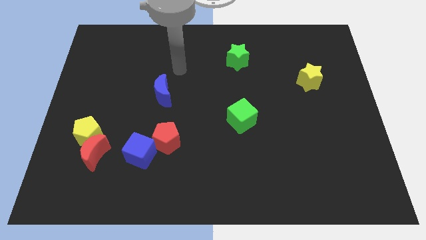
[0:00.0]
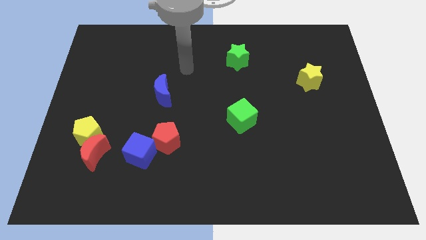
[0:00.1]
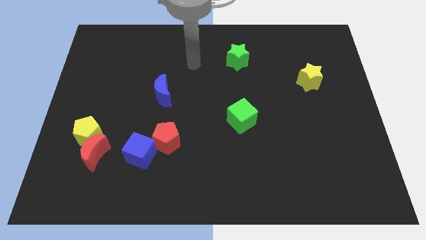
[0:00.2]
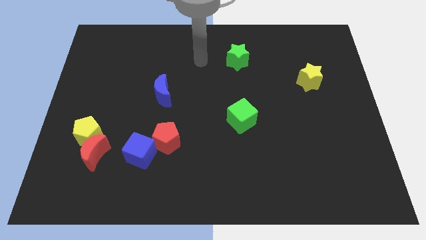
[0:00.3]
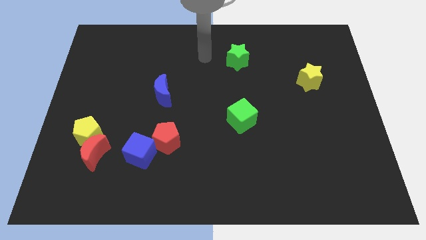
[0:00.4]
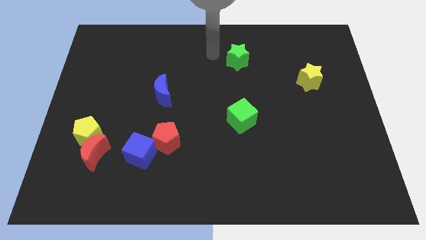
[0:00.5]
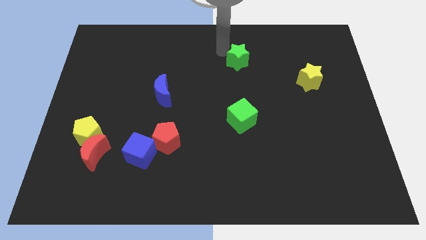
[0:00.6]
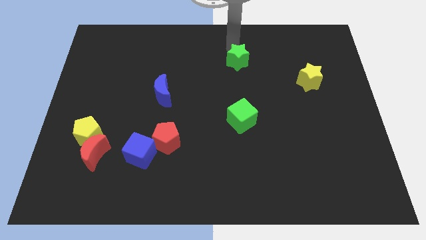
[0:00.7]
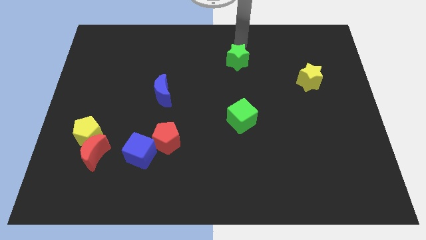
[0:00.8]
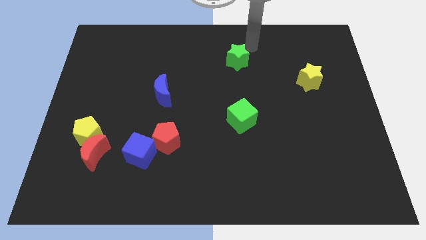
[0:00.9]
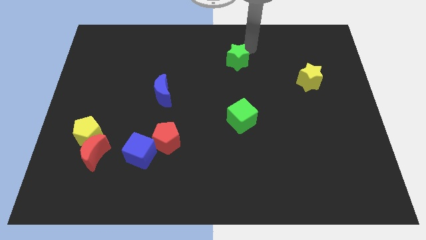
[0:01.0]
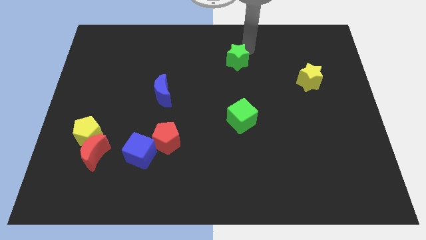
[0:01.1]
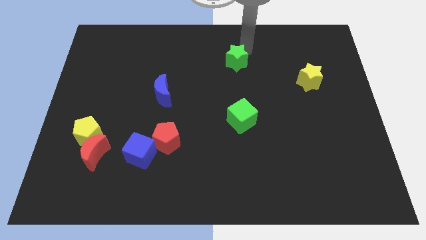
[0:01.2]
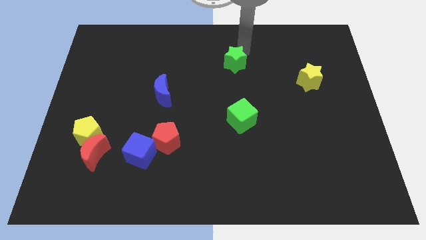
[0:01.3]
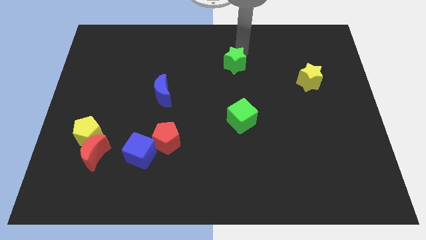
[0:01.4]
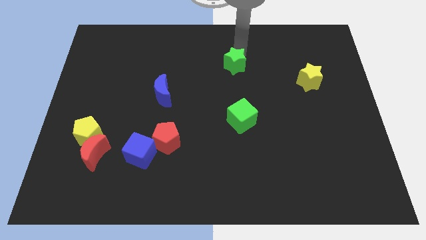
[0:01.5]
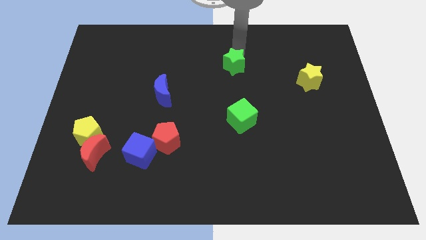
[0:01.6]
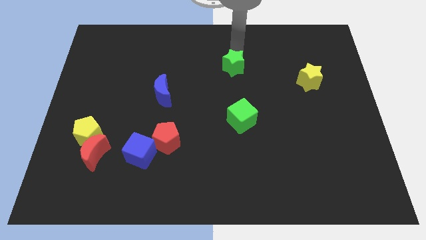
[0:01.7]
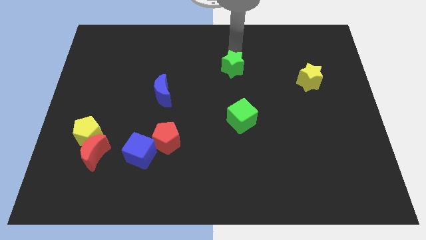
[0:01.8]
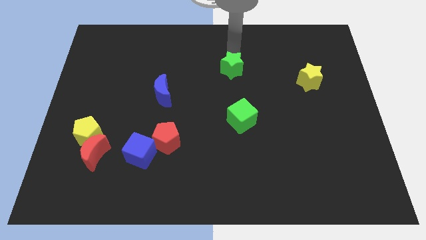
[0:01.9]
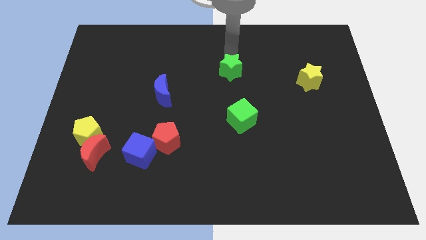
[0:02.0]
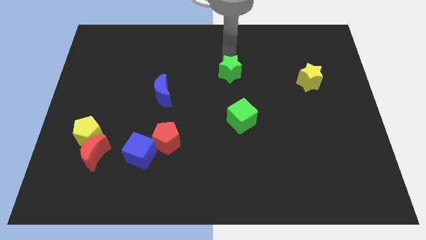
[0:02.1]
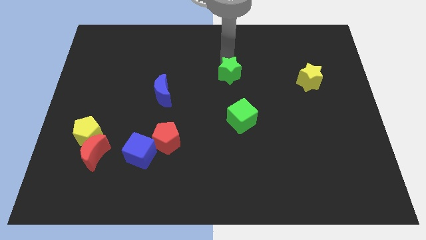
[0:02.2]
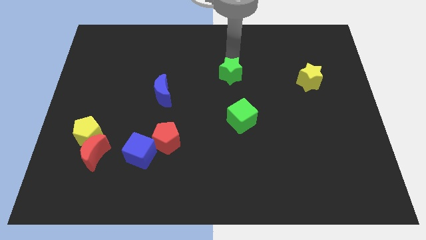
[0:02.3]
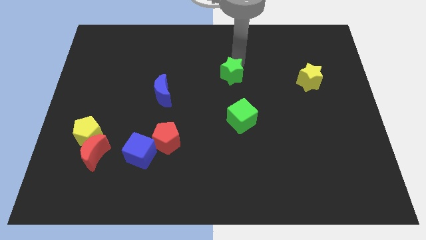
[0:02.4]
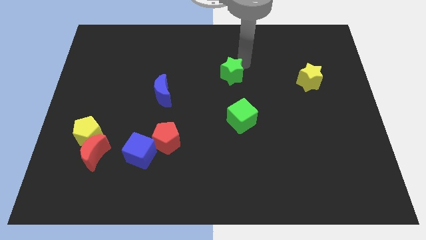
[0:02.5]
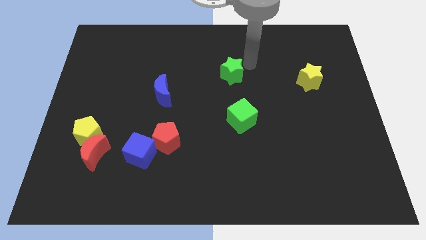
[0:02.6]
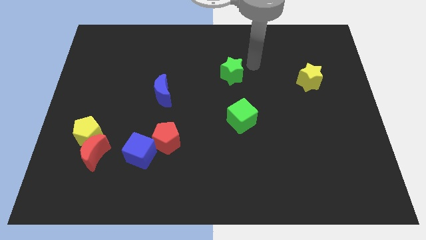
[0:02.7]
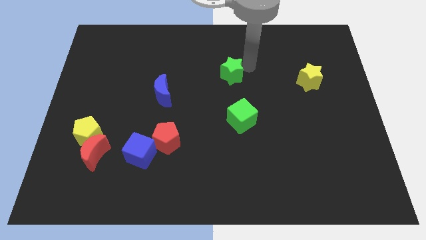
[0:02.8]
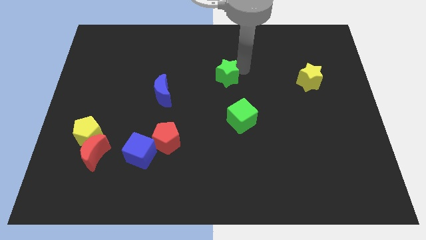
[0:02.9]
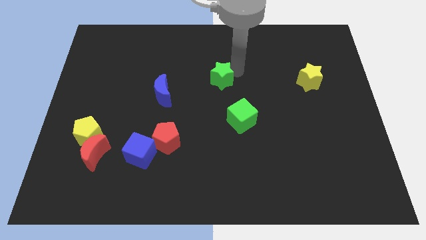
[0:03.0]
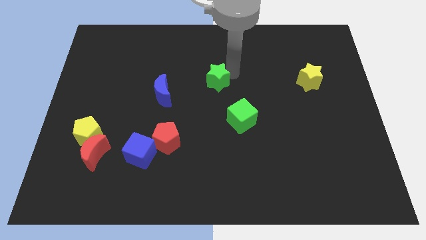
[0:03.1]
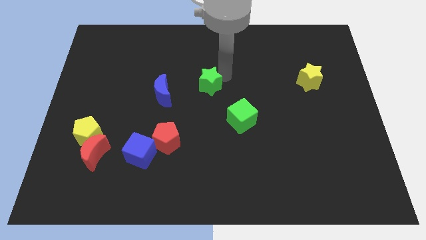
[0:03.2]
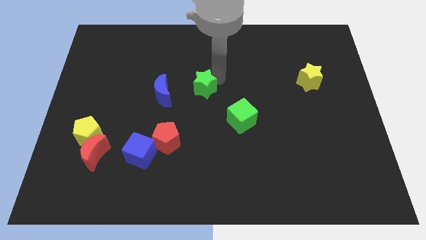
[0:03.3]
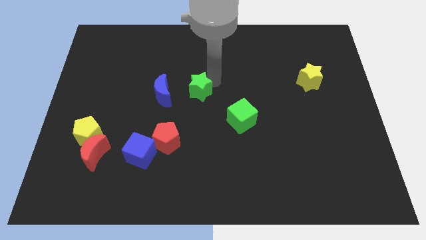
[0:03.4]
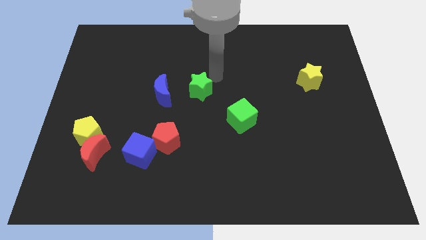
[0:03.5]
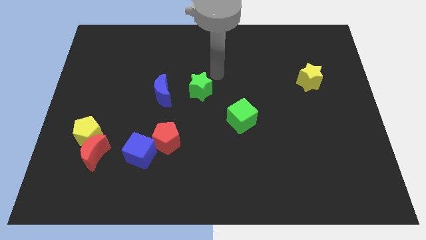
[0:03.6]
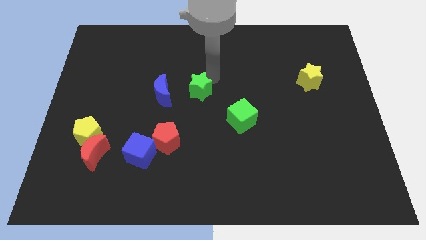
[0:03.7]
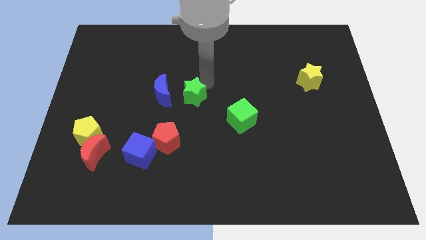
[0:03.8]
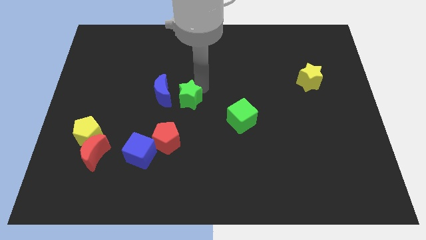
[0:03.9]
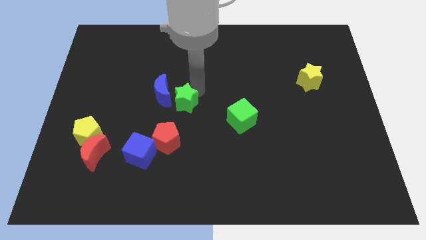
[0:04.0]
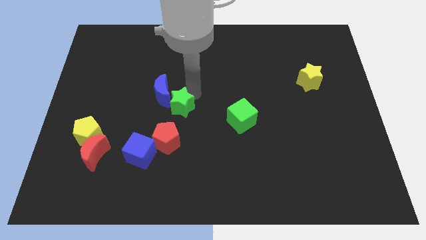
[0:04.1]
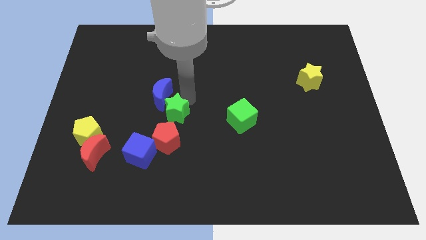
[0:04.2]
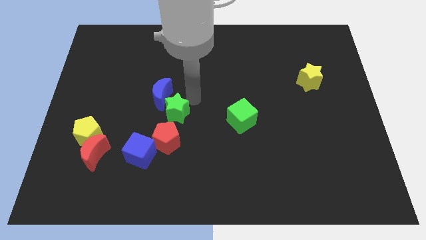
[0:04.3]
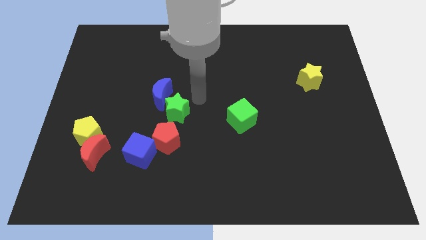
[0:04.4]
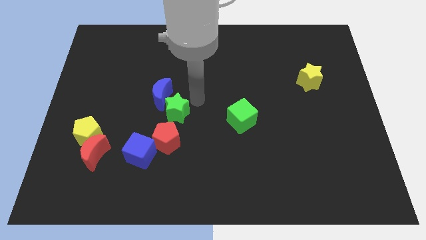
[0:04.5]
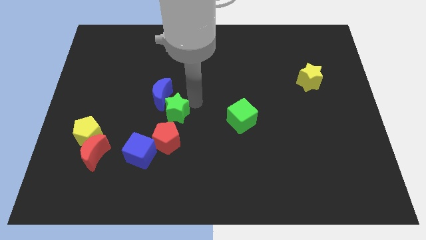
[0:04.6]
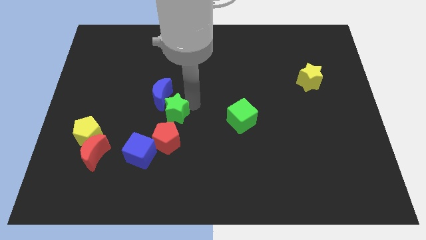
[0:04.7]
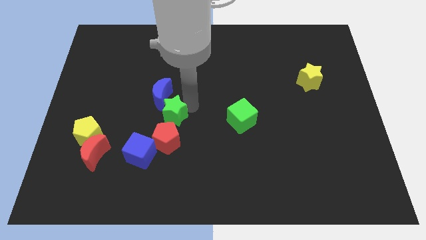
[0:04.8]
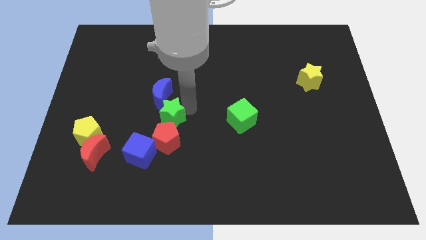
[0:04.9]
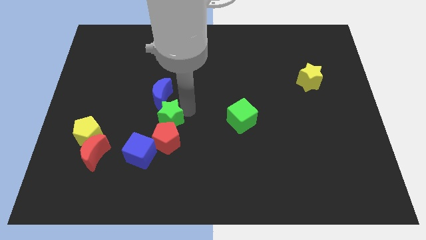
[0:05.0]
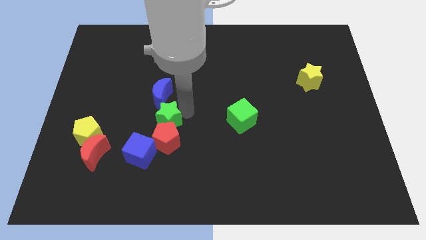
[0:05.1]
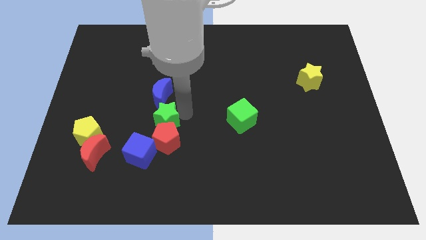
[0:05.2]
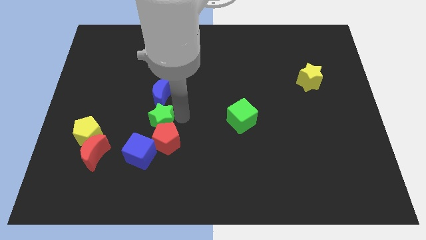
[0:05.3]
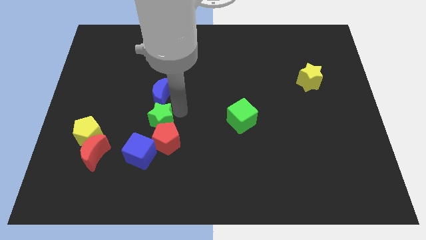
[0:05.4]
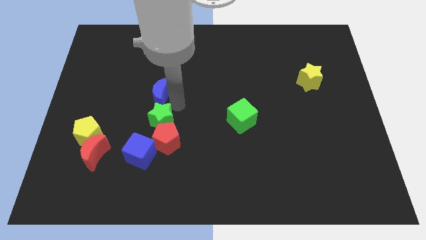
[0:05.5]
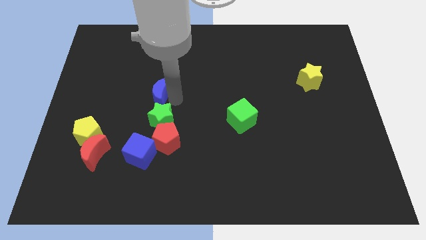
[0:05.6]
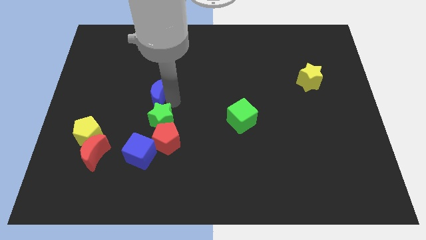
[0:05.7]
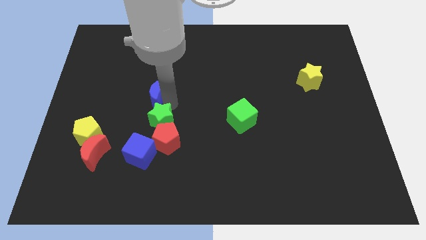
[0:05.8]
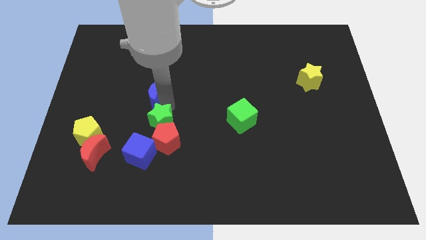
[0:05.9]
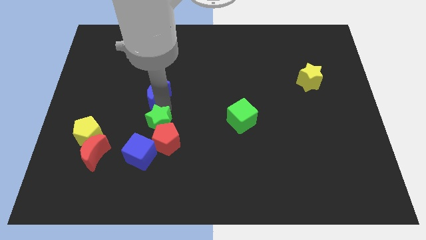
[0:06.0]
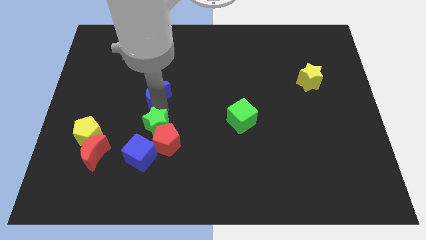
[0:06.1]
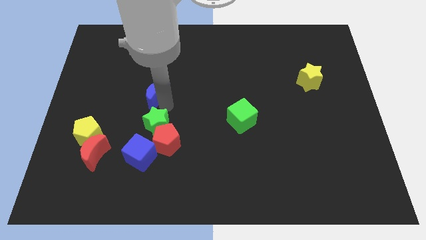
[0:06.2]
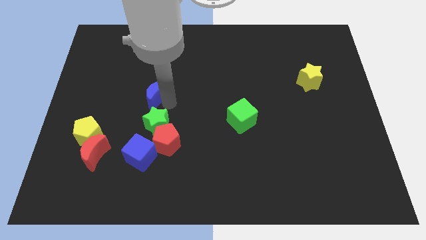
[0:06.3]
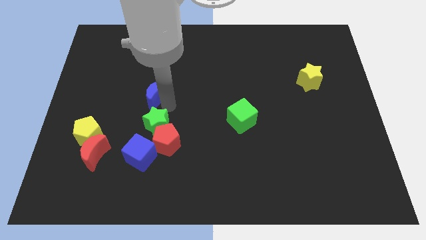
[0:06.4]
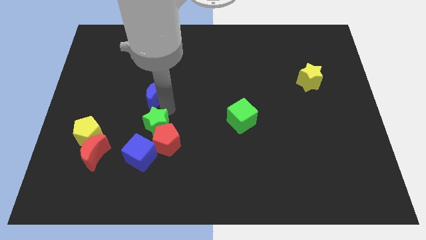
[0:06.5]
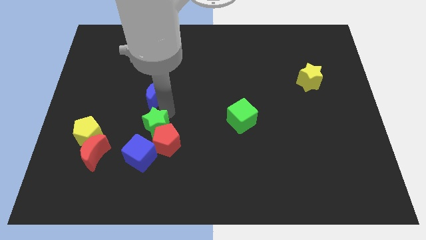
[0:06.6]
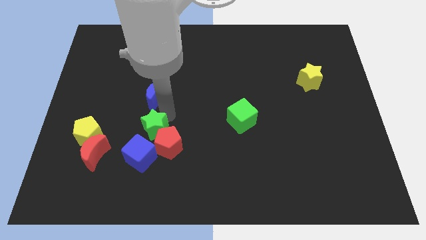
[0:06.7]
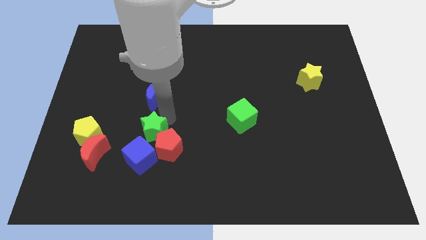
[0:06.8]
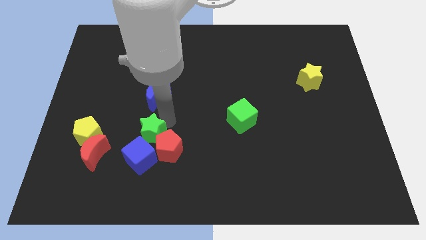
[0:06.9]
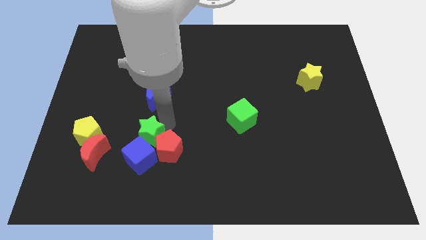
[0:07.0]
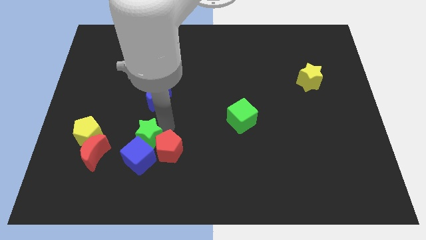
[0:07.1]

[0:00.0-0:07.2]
put the green star to the blue cube

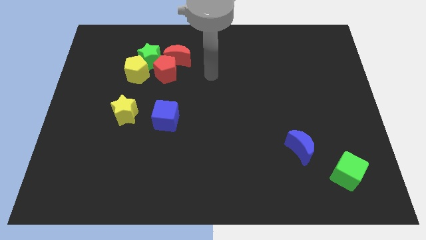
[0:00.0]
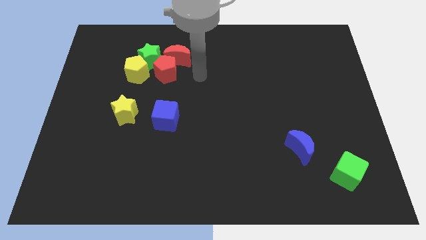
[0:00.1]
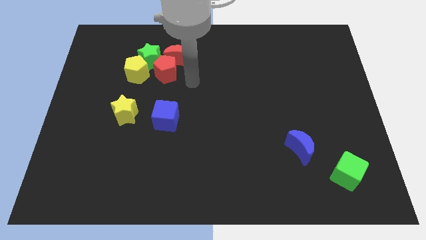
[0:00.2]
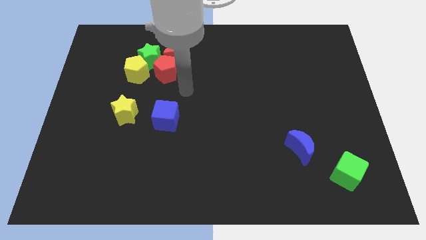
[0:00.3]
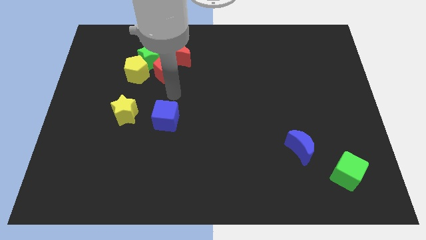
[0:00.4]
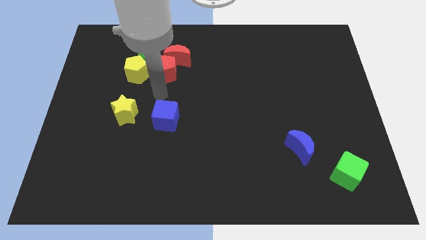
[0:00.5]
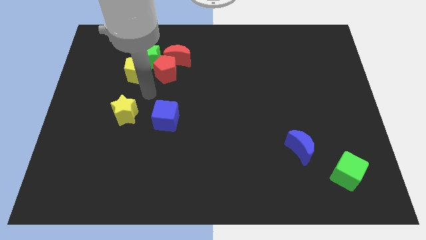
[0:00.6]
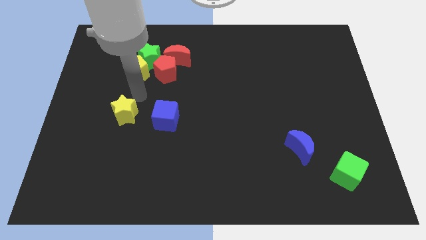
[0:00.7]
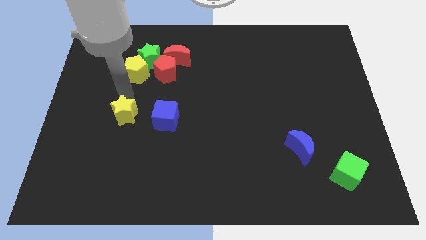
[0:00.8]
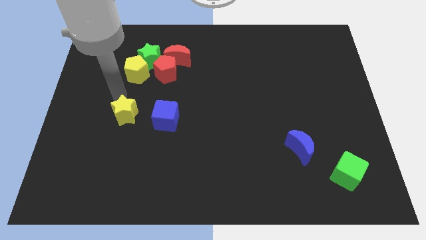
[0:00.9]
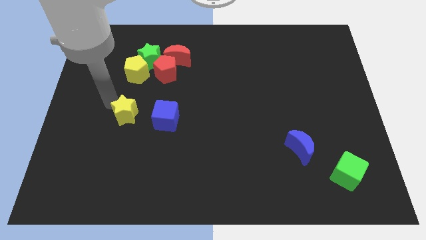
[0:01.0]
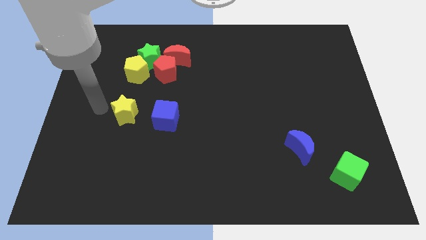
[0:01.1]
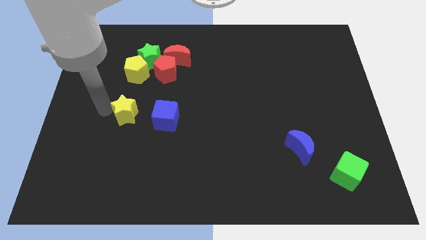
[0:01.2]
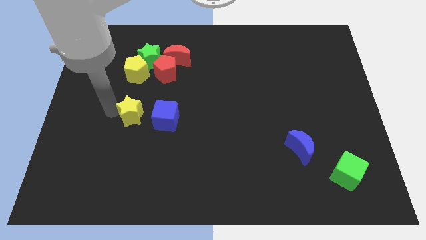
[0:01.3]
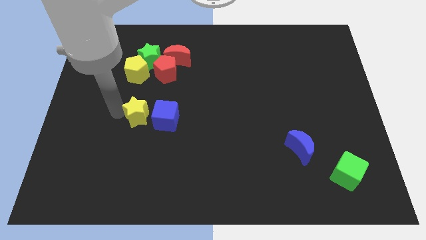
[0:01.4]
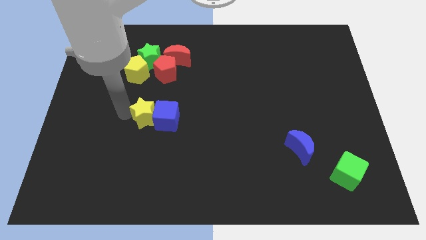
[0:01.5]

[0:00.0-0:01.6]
slide the yellow star to the blue cube
